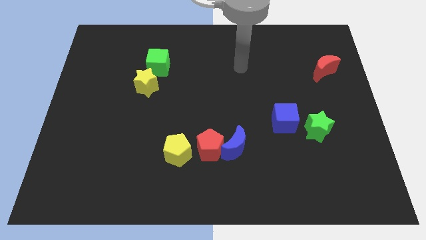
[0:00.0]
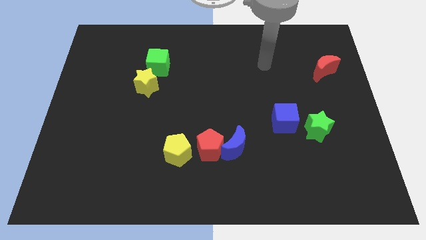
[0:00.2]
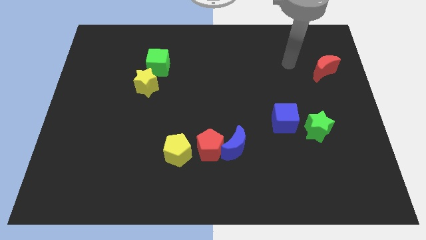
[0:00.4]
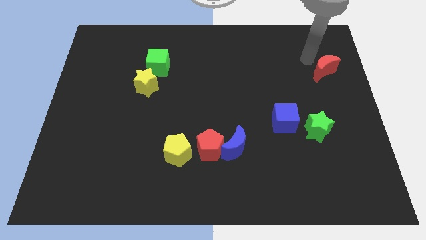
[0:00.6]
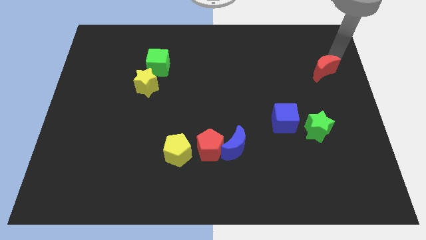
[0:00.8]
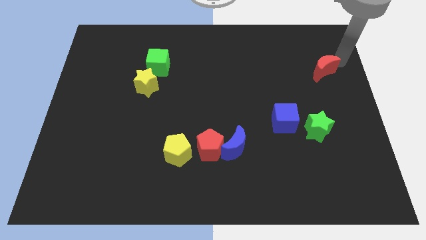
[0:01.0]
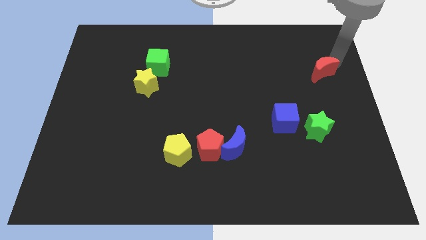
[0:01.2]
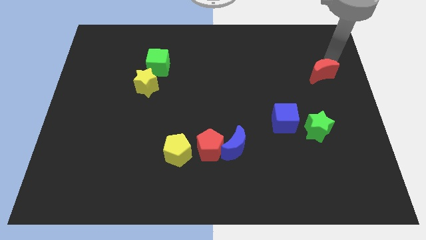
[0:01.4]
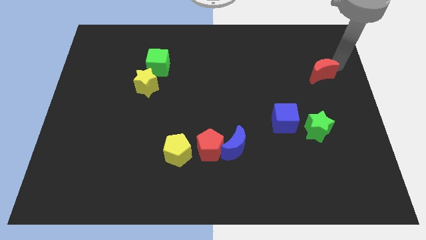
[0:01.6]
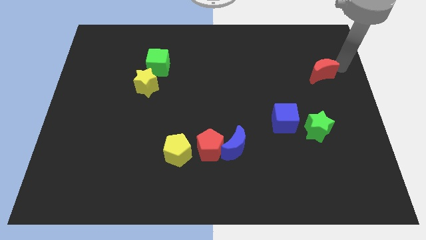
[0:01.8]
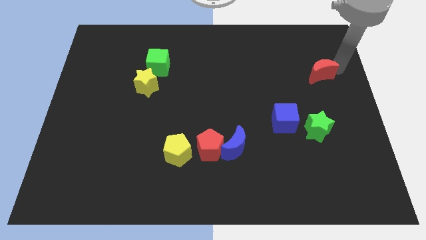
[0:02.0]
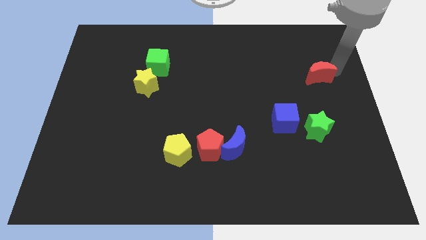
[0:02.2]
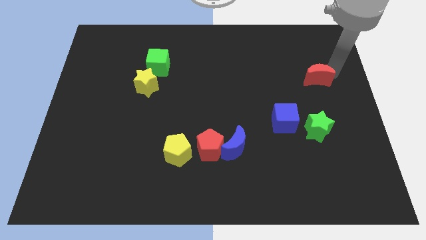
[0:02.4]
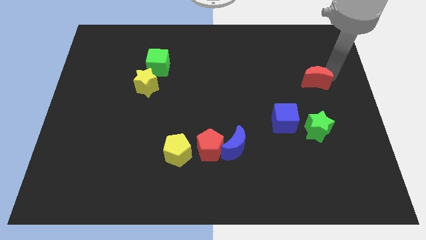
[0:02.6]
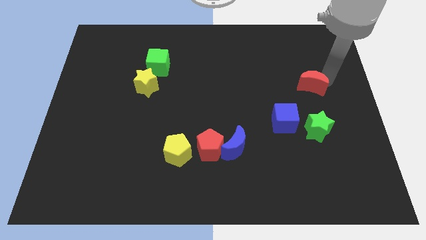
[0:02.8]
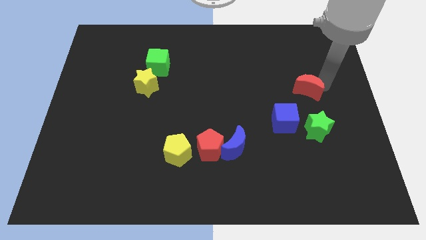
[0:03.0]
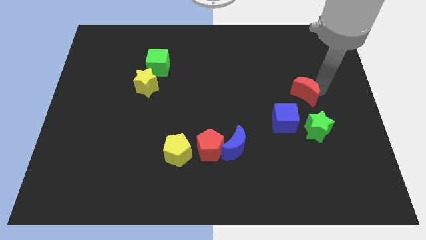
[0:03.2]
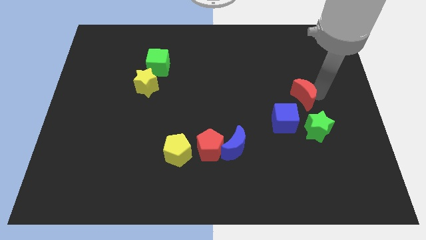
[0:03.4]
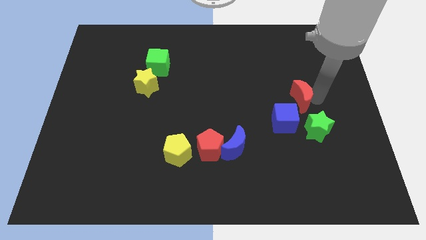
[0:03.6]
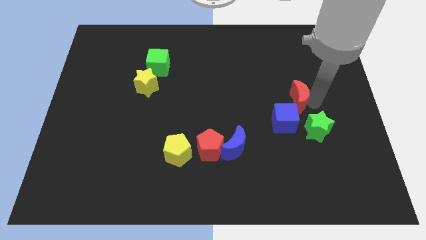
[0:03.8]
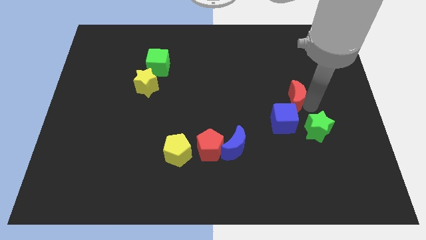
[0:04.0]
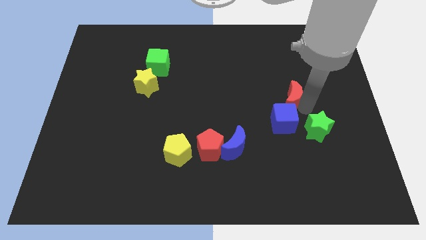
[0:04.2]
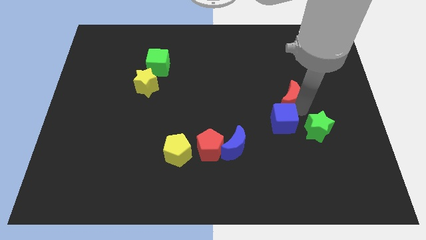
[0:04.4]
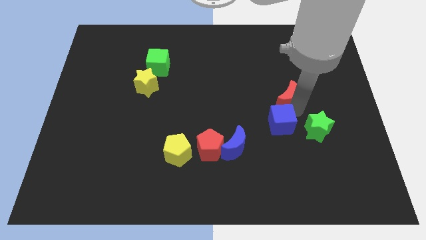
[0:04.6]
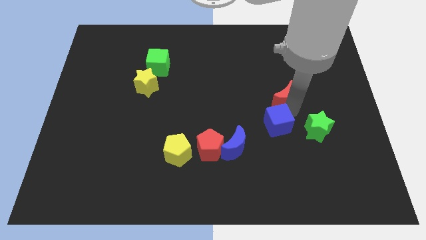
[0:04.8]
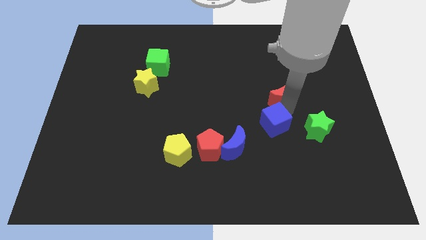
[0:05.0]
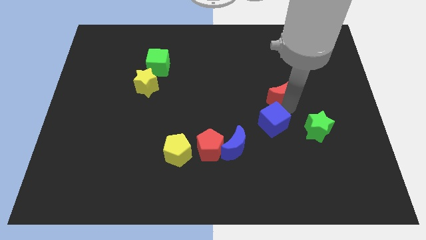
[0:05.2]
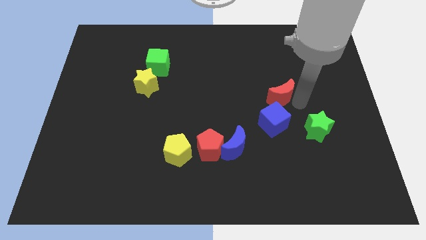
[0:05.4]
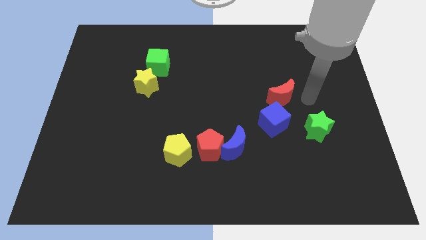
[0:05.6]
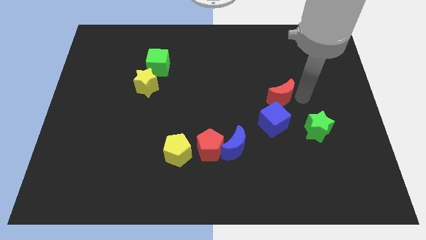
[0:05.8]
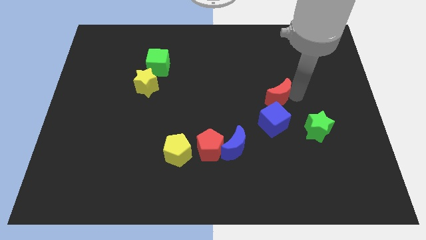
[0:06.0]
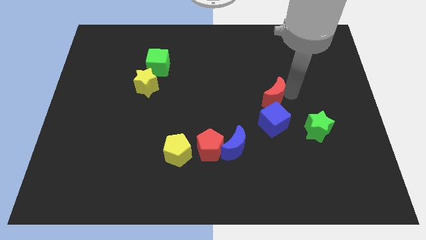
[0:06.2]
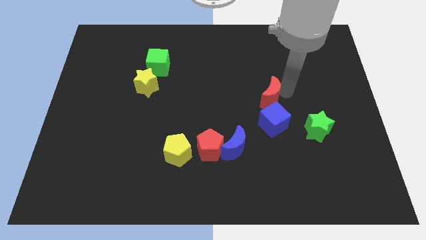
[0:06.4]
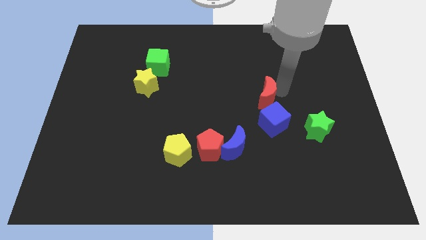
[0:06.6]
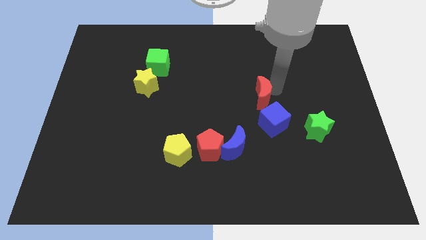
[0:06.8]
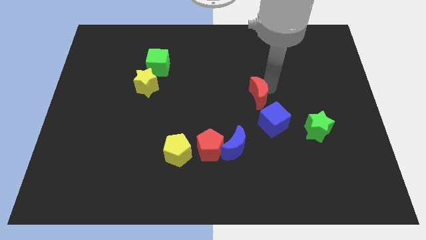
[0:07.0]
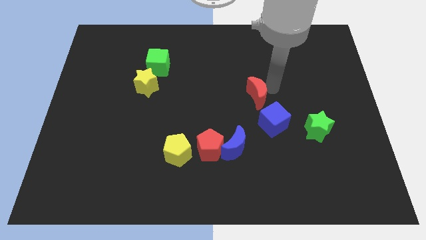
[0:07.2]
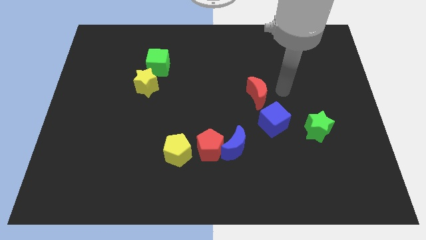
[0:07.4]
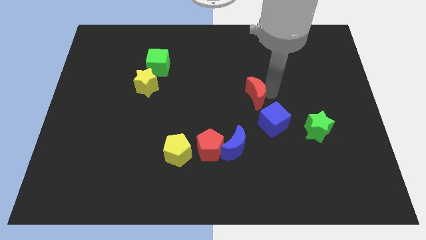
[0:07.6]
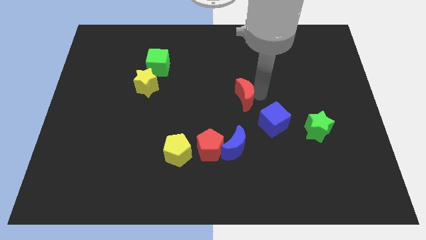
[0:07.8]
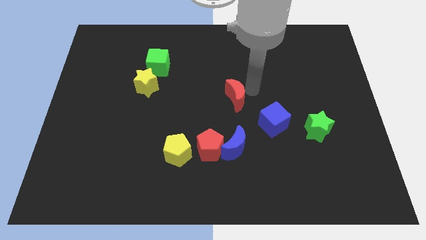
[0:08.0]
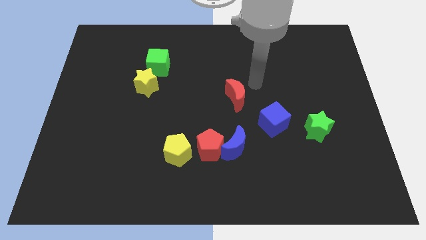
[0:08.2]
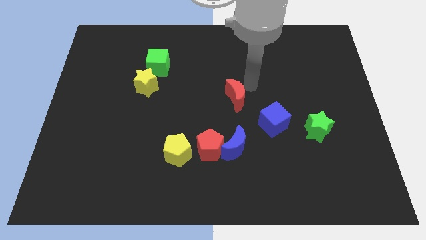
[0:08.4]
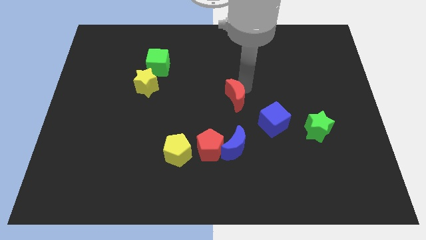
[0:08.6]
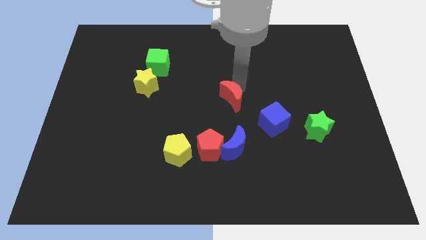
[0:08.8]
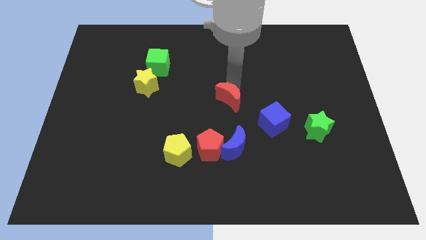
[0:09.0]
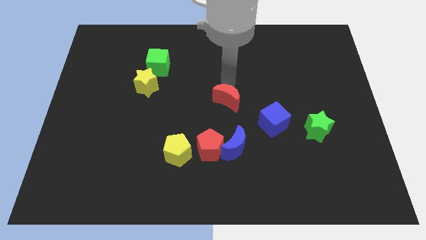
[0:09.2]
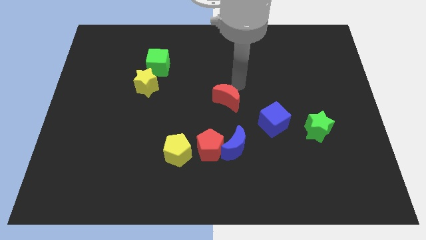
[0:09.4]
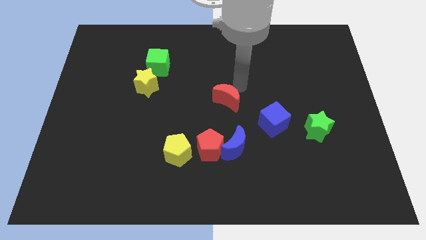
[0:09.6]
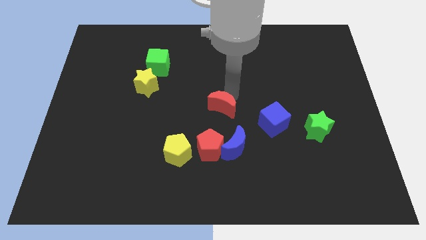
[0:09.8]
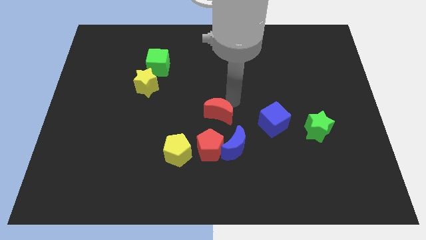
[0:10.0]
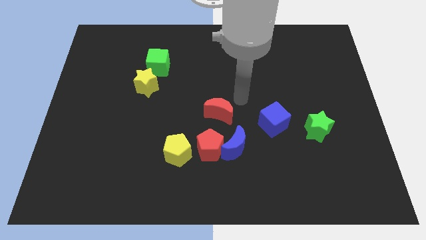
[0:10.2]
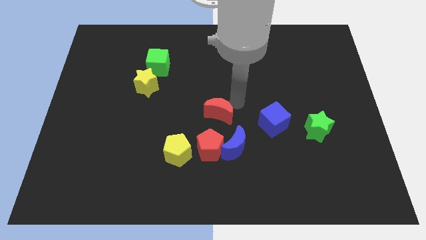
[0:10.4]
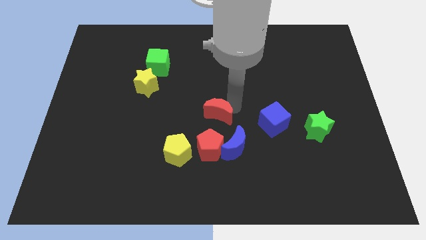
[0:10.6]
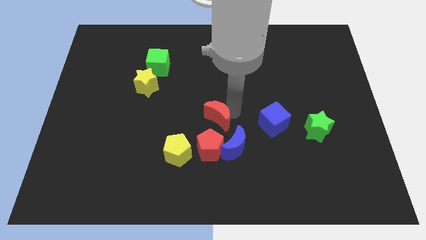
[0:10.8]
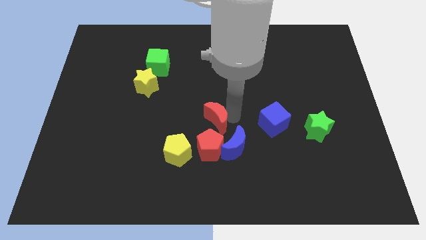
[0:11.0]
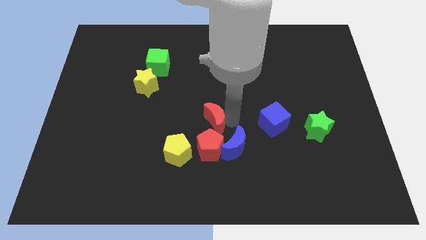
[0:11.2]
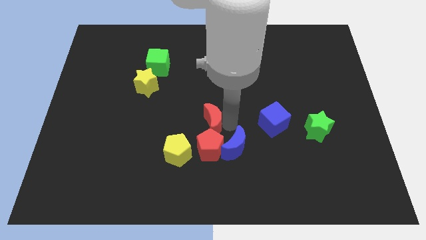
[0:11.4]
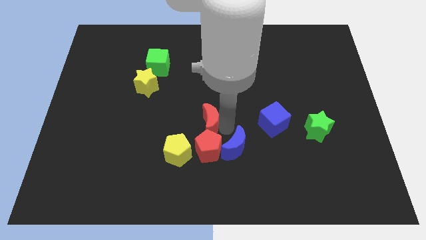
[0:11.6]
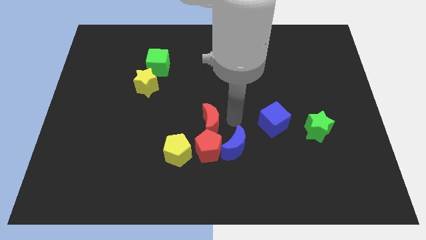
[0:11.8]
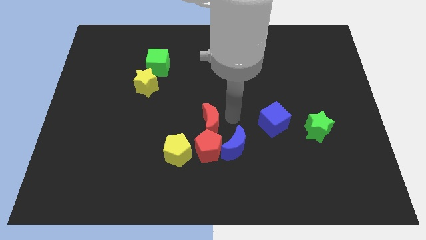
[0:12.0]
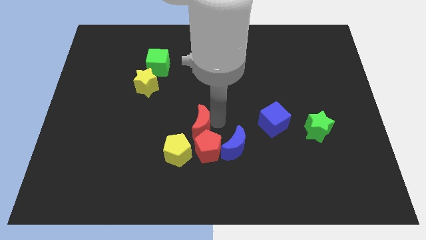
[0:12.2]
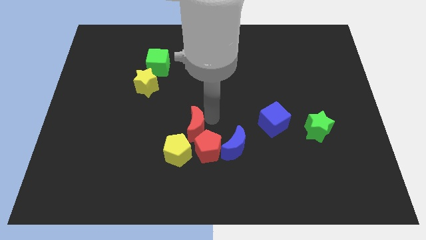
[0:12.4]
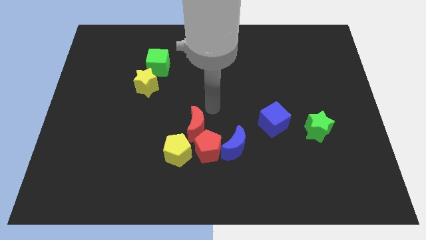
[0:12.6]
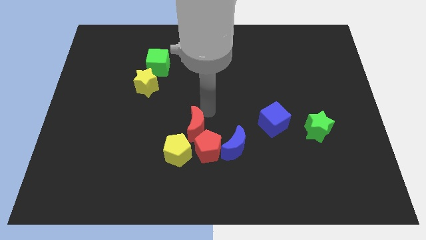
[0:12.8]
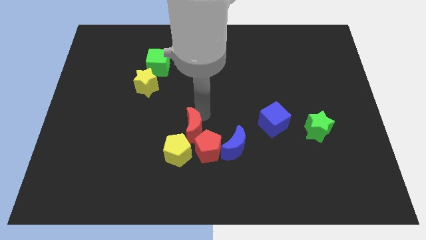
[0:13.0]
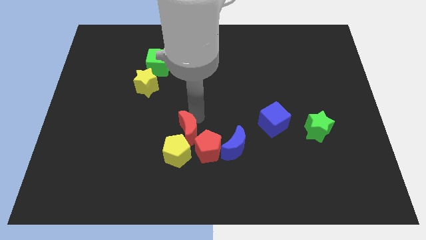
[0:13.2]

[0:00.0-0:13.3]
put the red moon to the yellow pentagon
